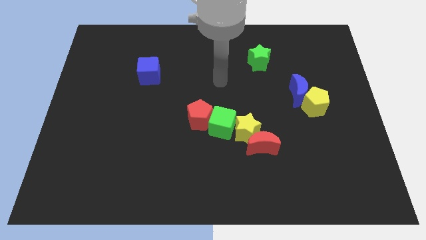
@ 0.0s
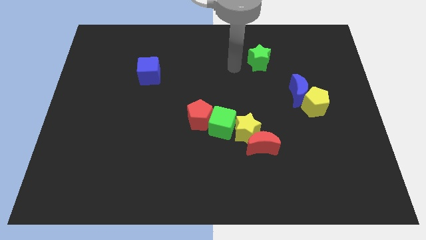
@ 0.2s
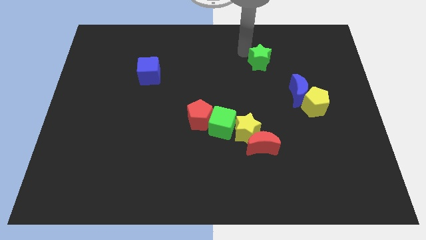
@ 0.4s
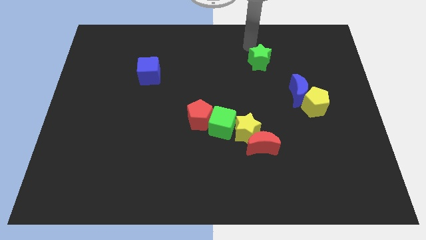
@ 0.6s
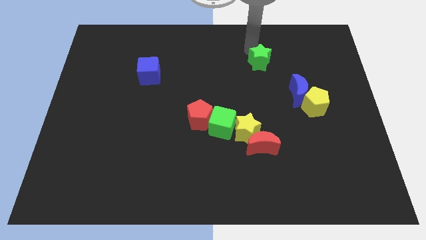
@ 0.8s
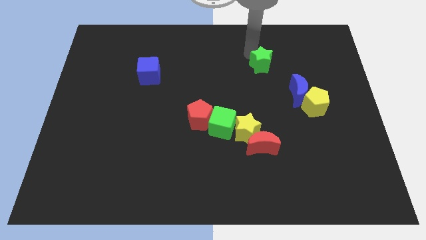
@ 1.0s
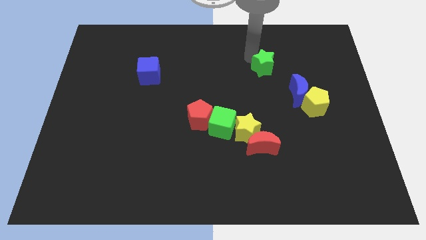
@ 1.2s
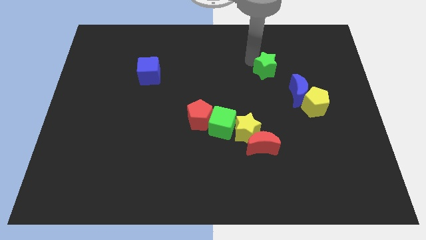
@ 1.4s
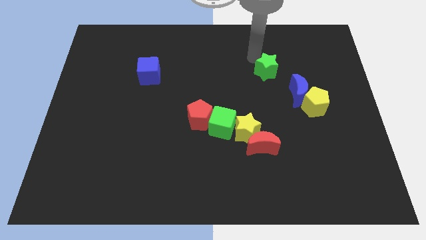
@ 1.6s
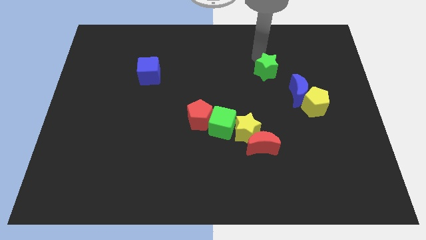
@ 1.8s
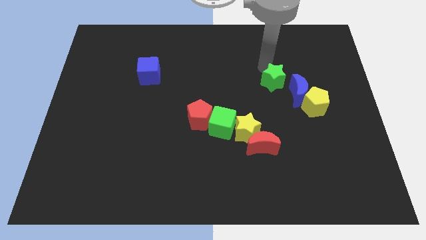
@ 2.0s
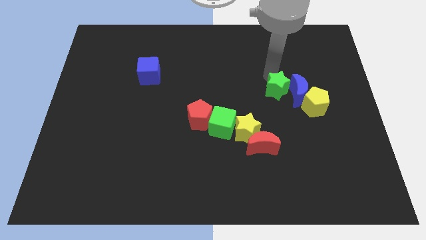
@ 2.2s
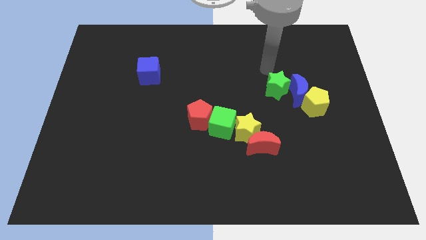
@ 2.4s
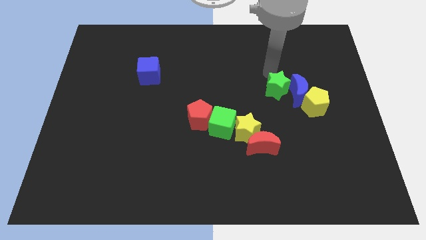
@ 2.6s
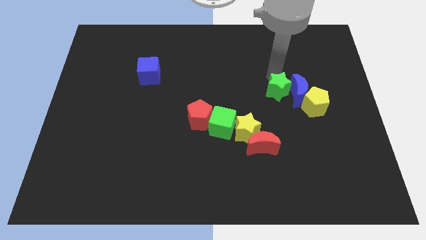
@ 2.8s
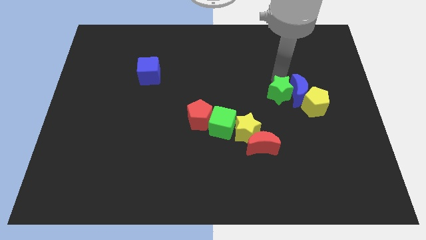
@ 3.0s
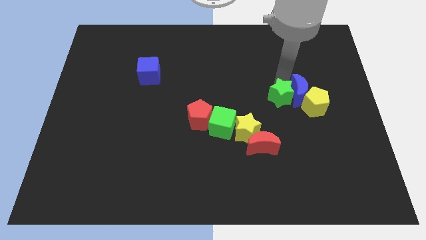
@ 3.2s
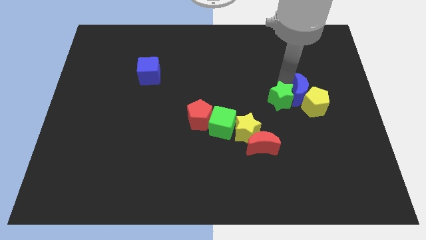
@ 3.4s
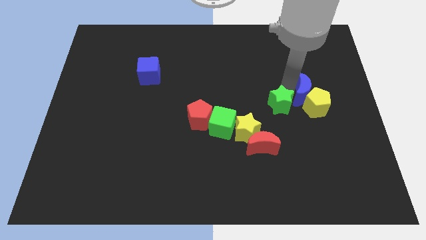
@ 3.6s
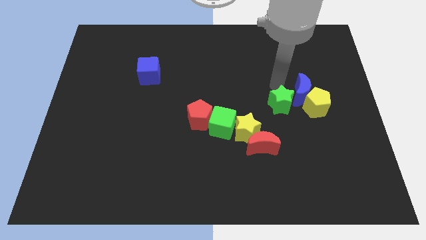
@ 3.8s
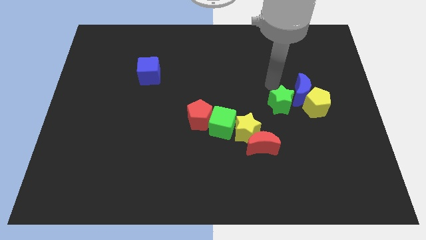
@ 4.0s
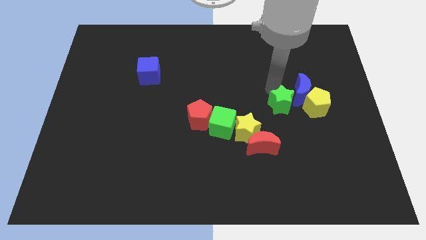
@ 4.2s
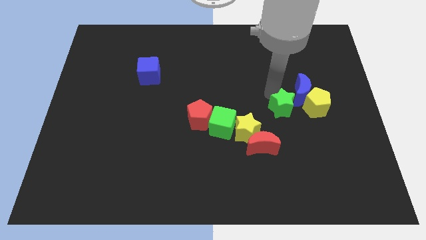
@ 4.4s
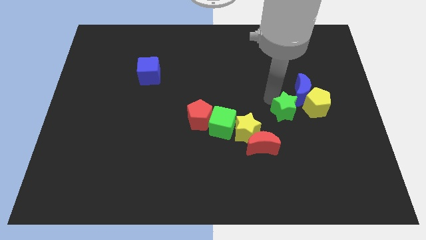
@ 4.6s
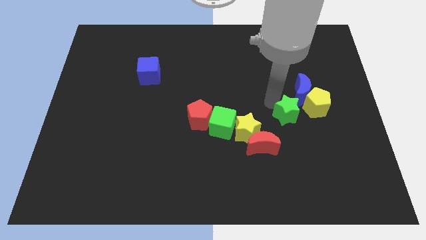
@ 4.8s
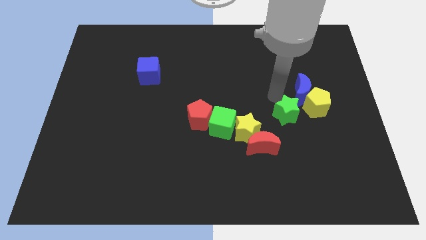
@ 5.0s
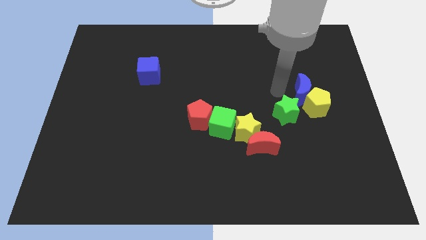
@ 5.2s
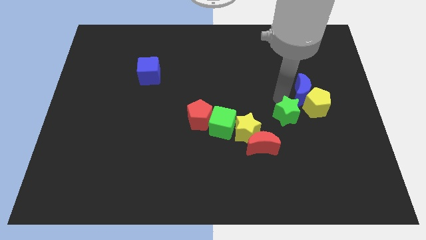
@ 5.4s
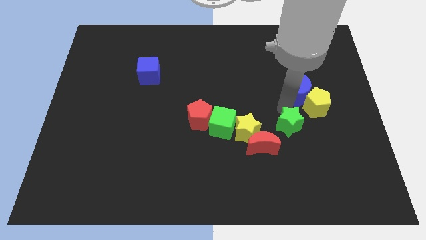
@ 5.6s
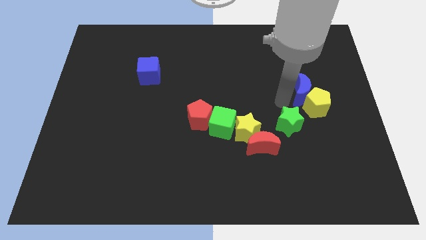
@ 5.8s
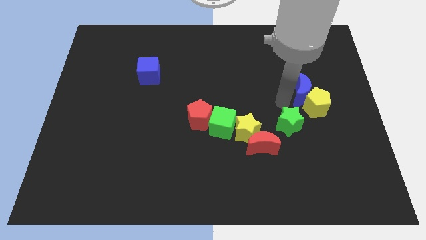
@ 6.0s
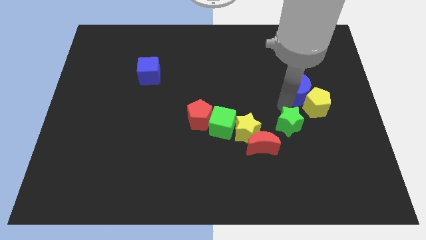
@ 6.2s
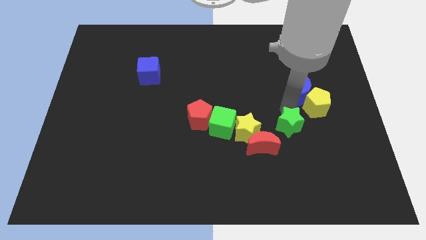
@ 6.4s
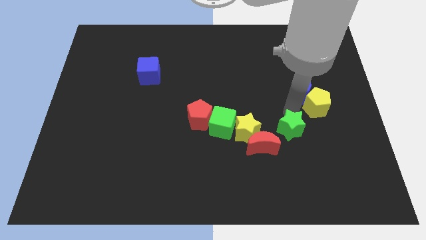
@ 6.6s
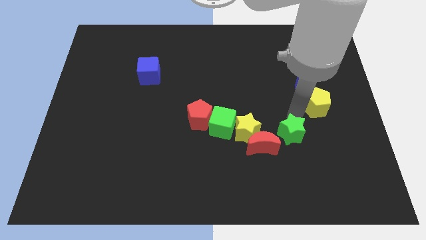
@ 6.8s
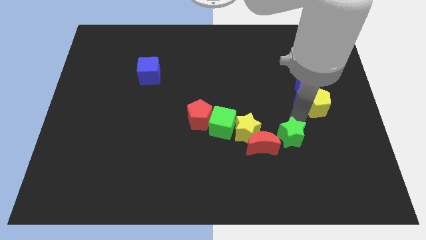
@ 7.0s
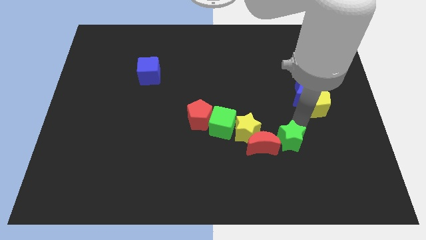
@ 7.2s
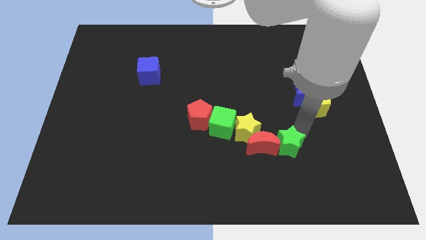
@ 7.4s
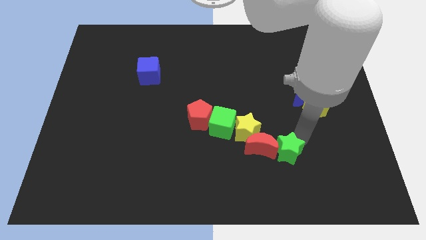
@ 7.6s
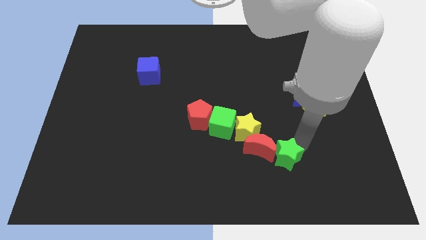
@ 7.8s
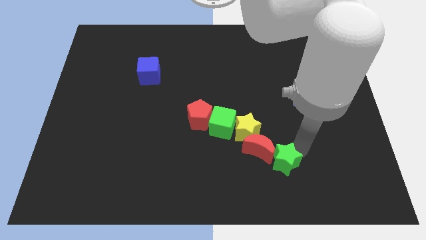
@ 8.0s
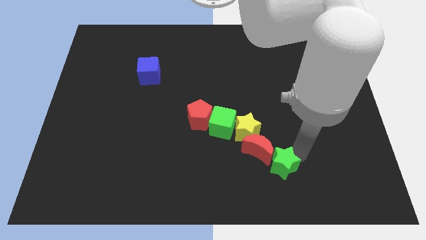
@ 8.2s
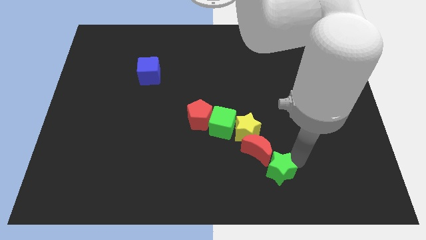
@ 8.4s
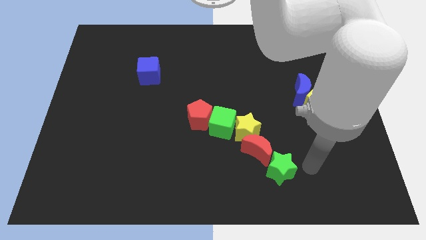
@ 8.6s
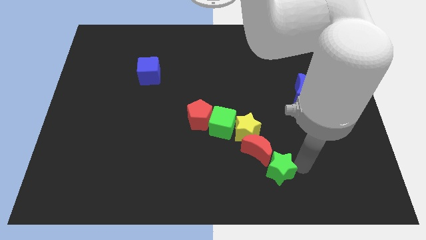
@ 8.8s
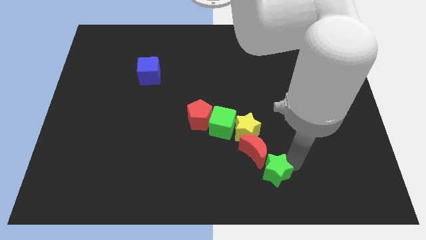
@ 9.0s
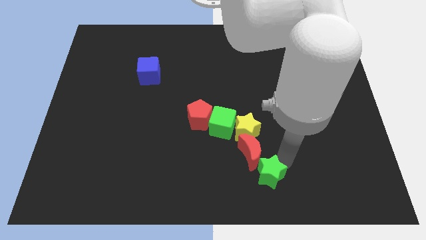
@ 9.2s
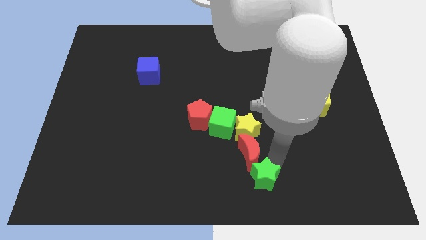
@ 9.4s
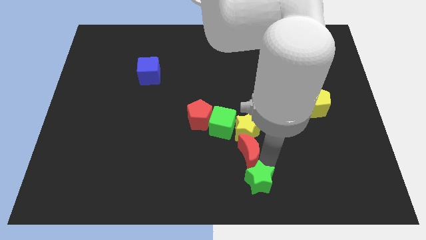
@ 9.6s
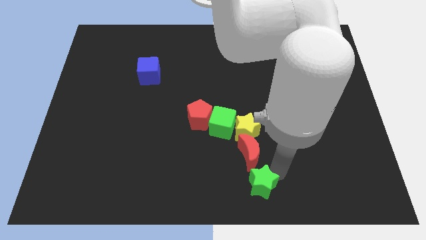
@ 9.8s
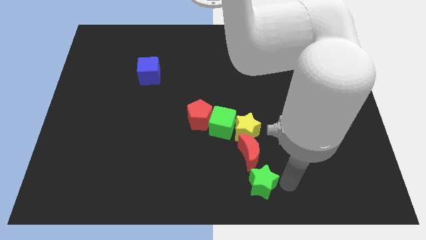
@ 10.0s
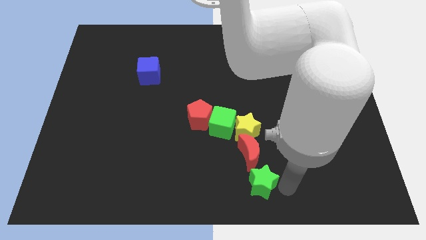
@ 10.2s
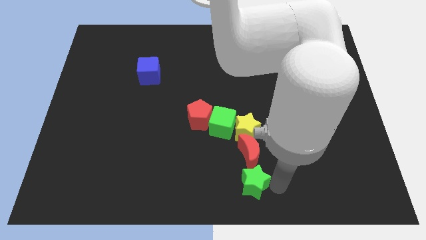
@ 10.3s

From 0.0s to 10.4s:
put the green star diagonally down and to the left of the red moon

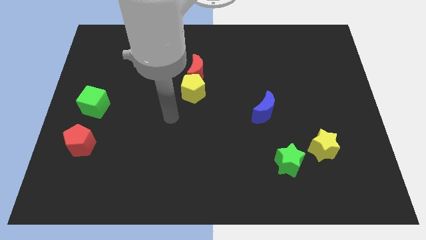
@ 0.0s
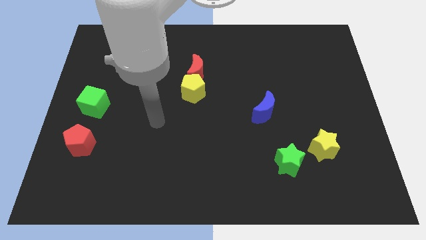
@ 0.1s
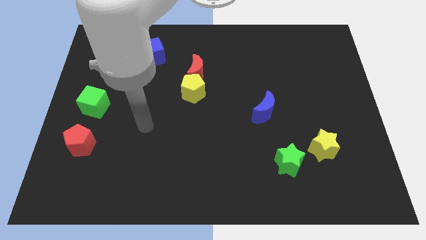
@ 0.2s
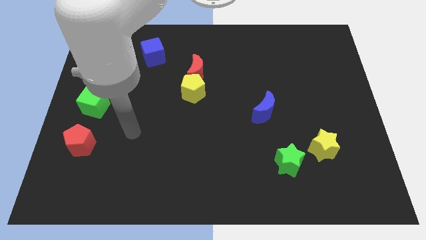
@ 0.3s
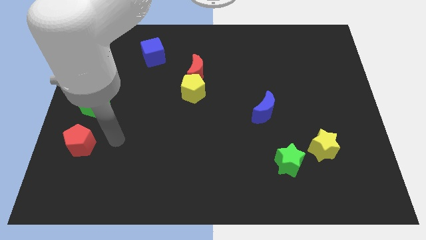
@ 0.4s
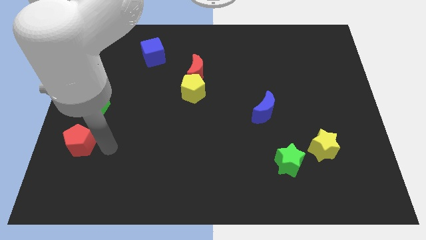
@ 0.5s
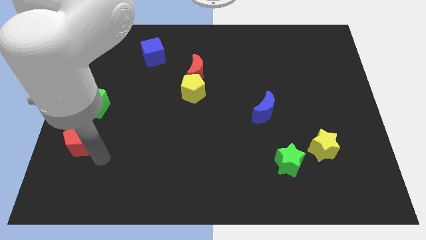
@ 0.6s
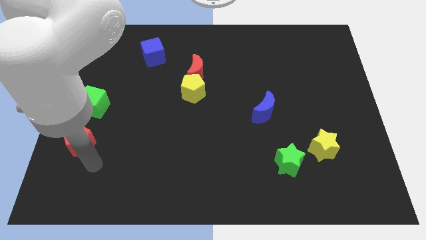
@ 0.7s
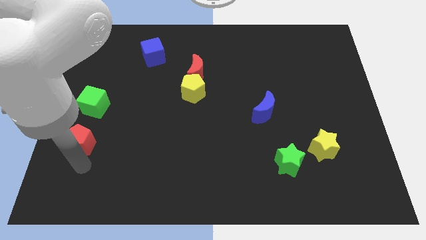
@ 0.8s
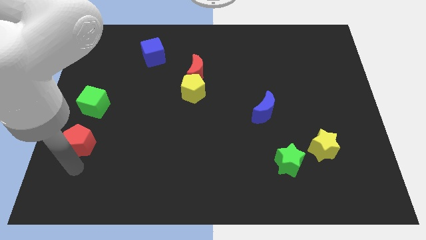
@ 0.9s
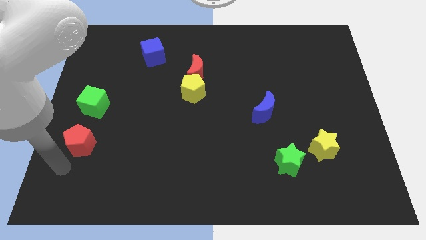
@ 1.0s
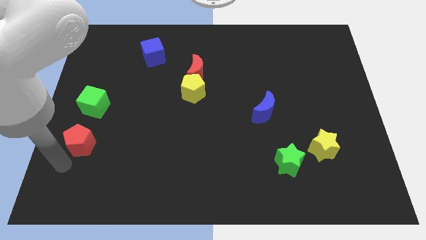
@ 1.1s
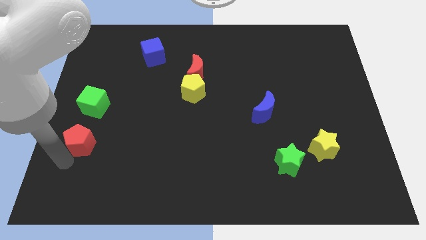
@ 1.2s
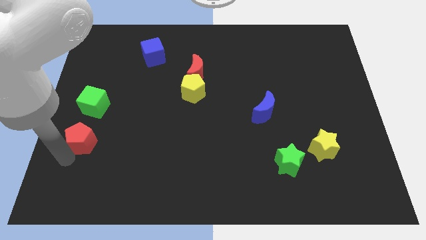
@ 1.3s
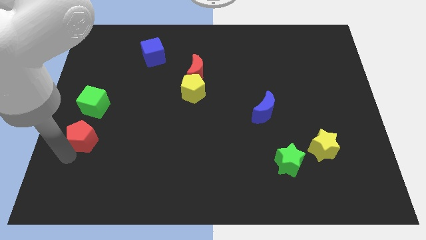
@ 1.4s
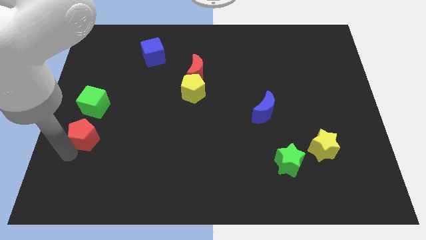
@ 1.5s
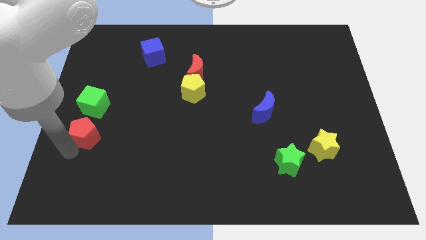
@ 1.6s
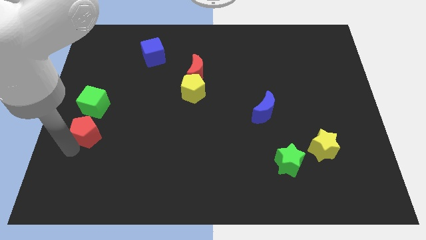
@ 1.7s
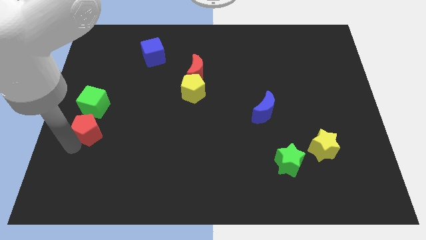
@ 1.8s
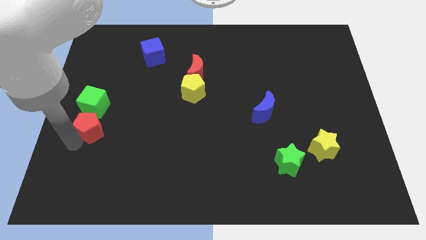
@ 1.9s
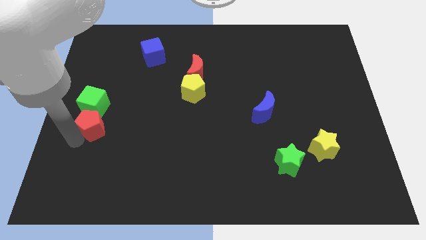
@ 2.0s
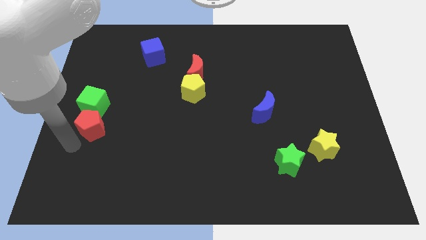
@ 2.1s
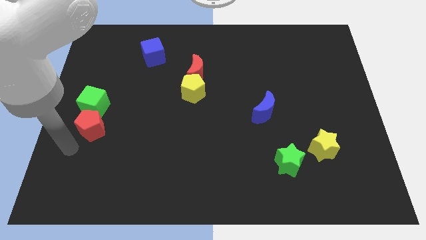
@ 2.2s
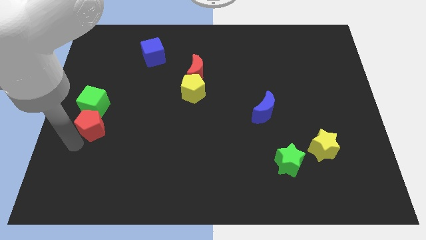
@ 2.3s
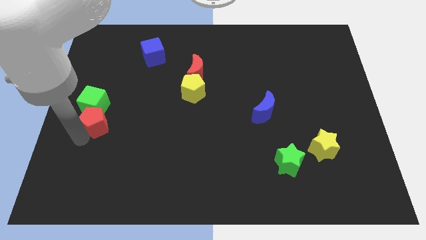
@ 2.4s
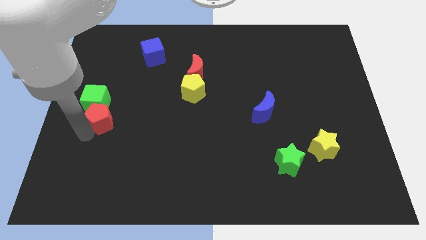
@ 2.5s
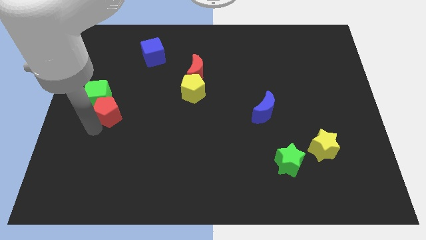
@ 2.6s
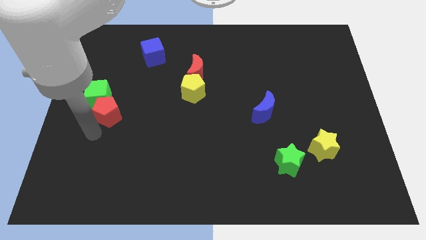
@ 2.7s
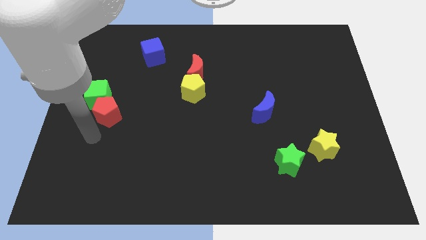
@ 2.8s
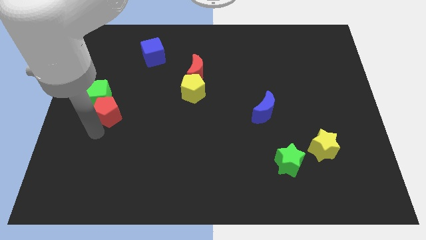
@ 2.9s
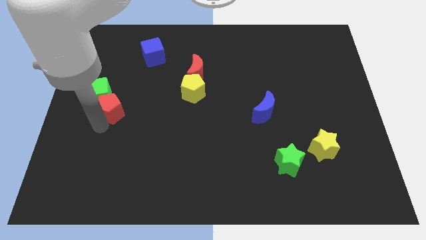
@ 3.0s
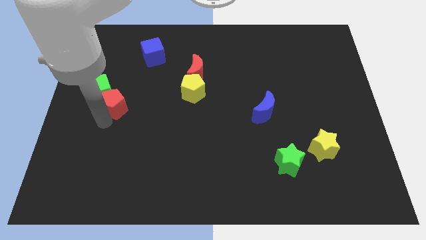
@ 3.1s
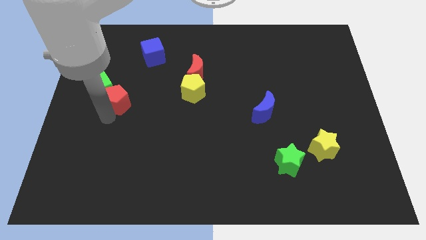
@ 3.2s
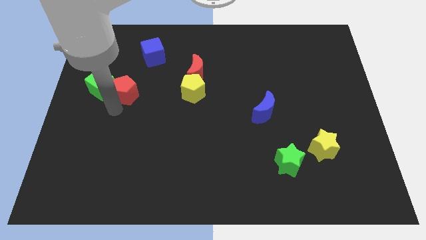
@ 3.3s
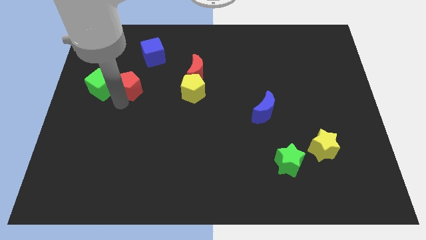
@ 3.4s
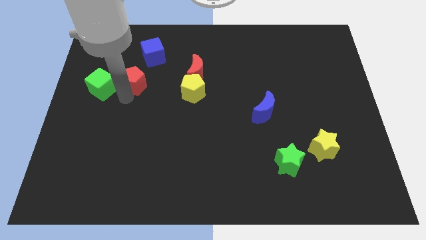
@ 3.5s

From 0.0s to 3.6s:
move the red pentagon to the bottom left side of the blue cube
